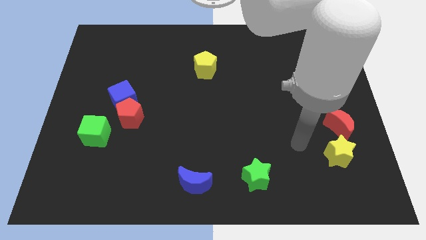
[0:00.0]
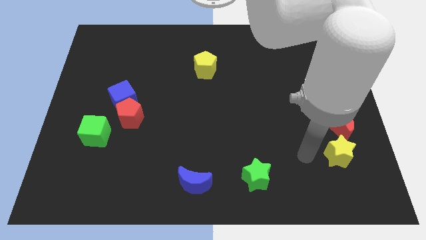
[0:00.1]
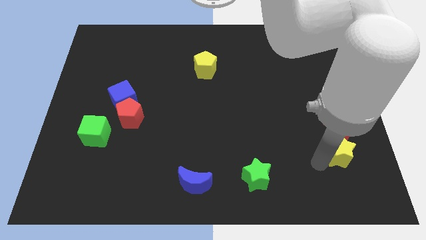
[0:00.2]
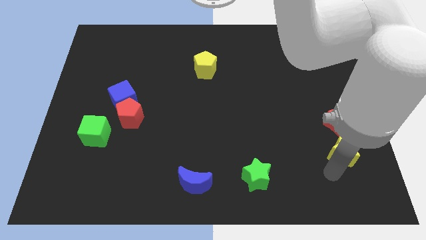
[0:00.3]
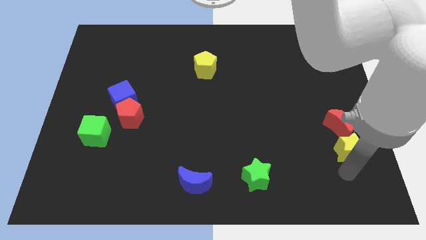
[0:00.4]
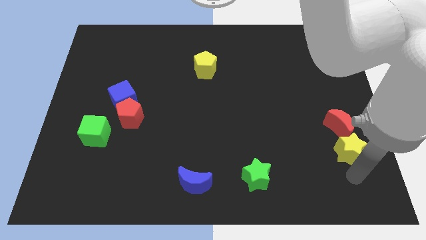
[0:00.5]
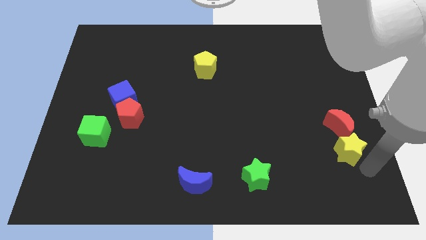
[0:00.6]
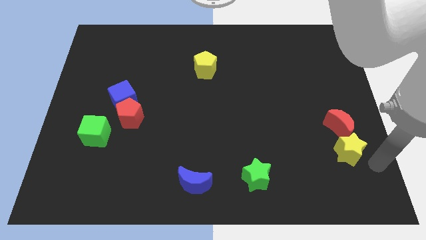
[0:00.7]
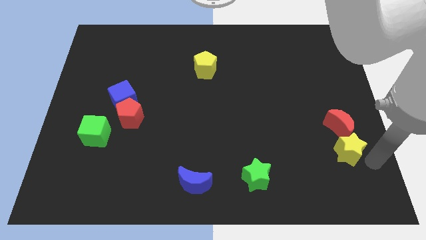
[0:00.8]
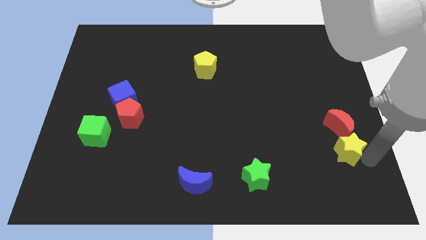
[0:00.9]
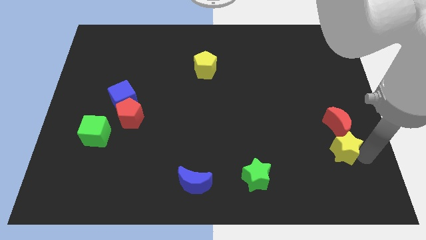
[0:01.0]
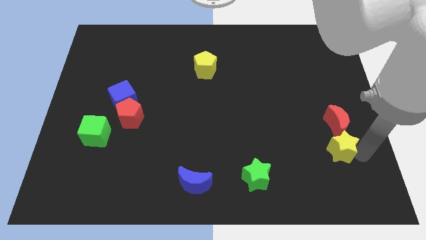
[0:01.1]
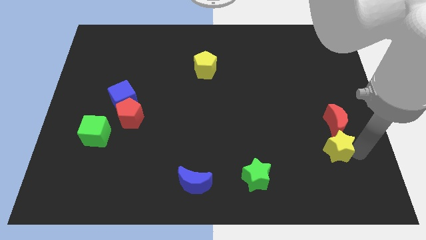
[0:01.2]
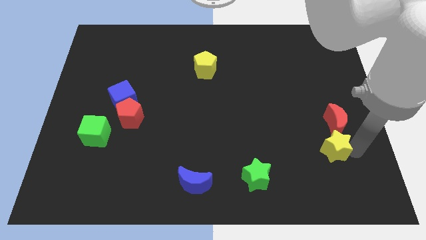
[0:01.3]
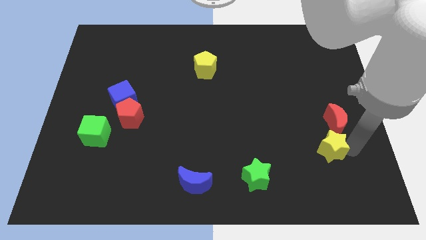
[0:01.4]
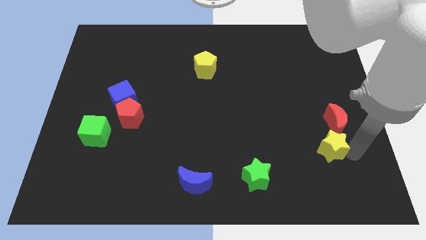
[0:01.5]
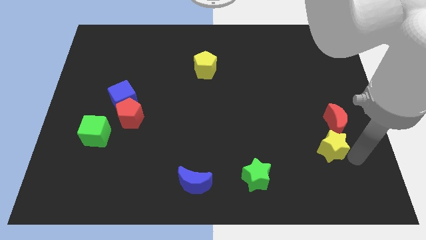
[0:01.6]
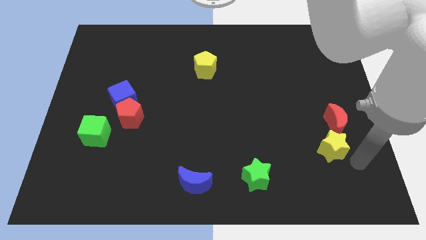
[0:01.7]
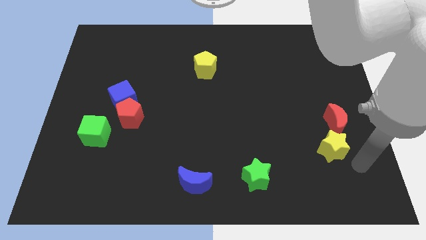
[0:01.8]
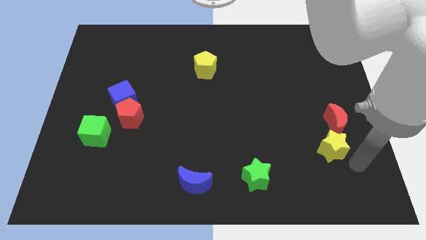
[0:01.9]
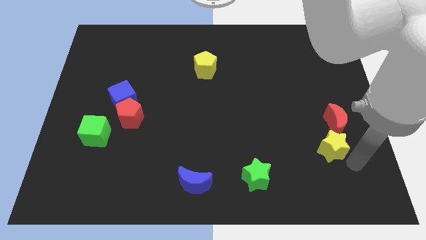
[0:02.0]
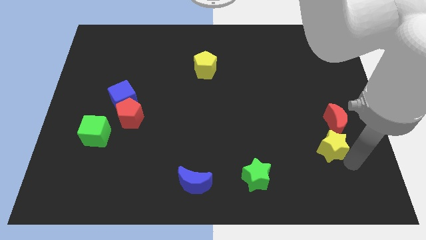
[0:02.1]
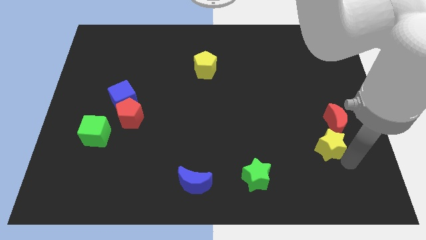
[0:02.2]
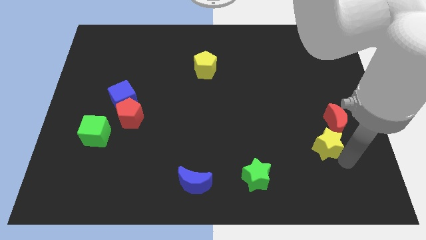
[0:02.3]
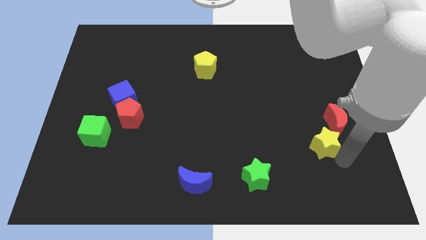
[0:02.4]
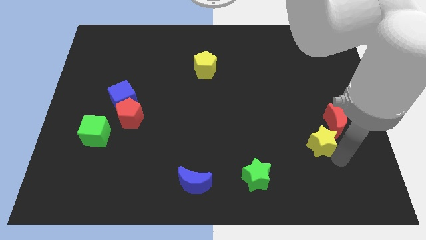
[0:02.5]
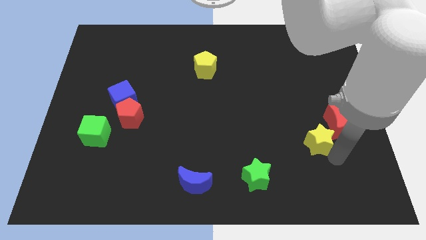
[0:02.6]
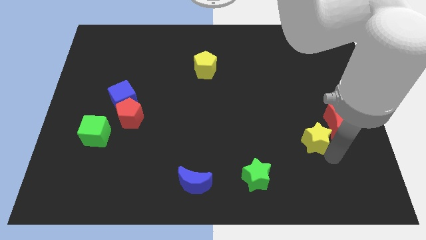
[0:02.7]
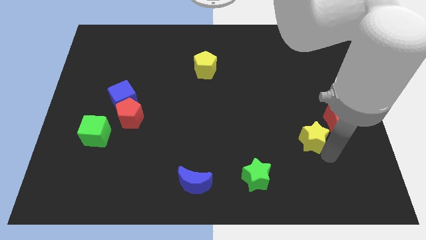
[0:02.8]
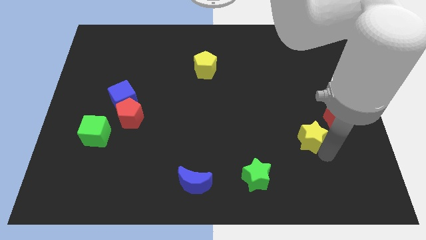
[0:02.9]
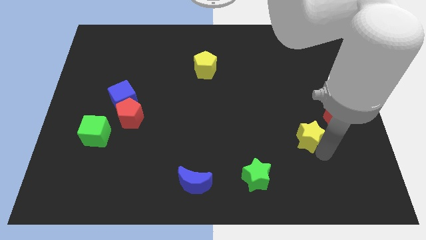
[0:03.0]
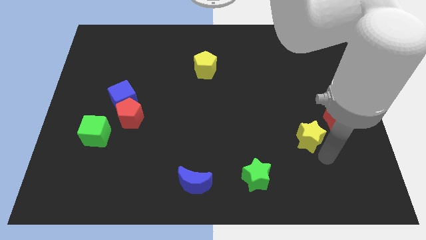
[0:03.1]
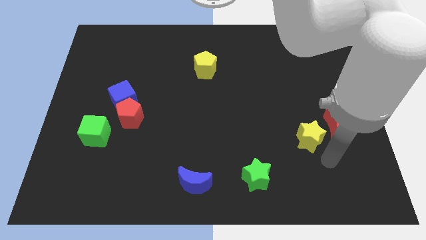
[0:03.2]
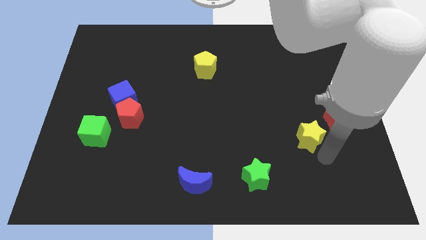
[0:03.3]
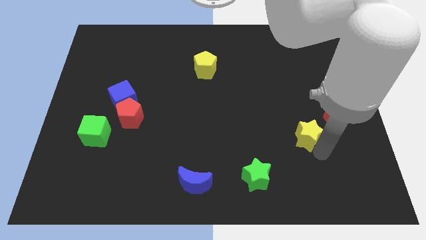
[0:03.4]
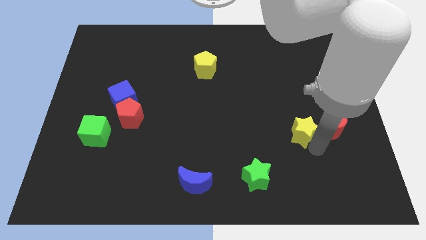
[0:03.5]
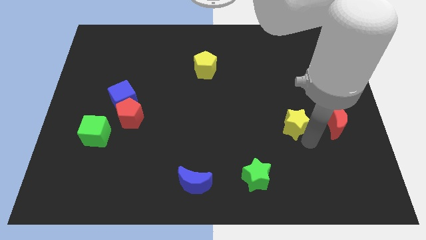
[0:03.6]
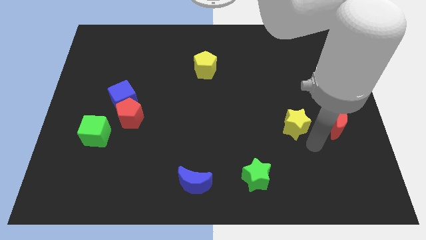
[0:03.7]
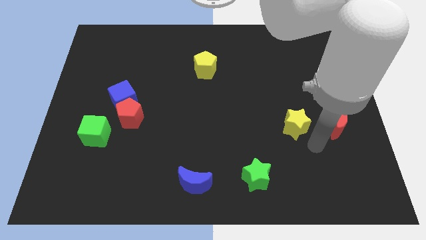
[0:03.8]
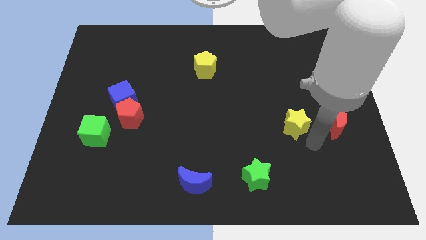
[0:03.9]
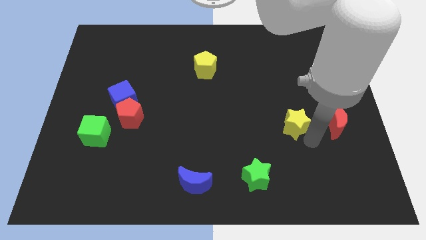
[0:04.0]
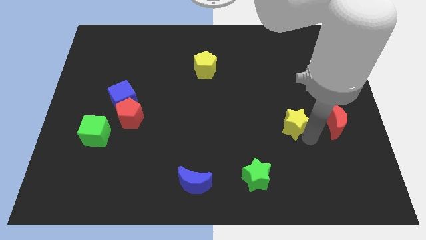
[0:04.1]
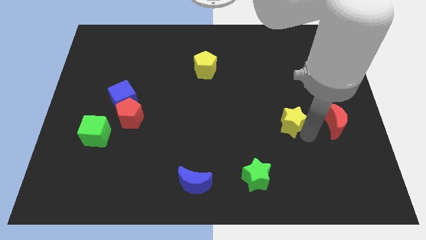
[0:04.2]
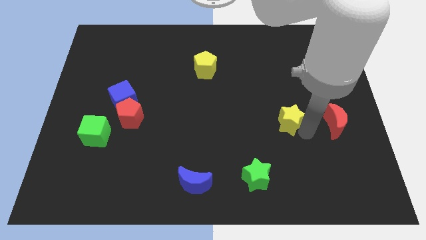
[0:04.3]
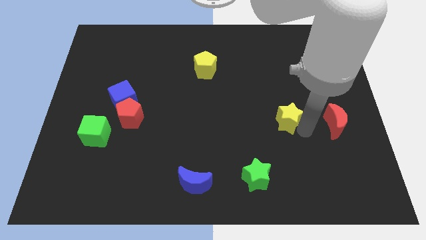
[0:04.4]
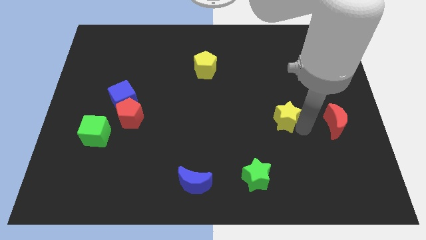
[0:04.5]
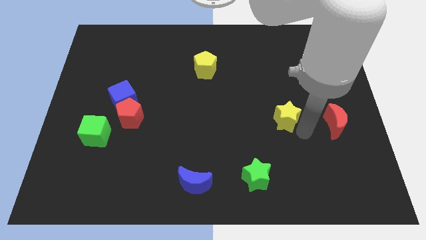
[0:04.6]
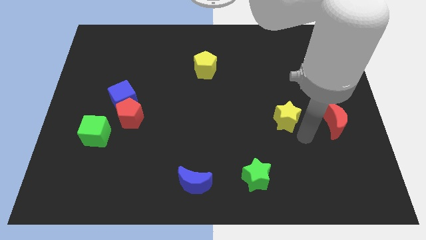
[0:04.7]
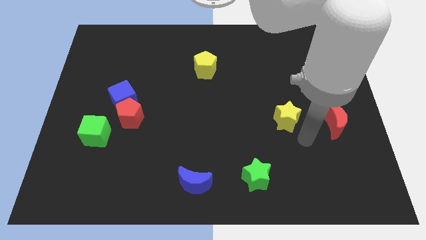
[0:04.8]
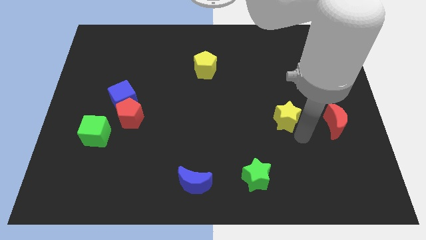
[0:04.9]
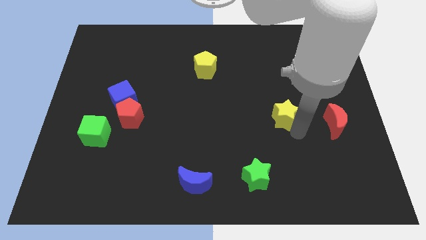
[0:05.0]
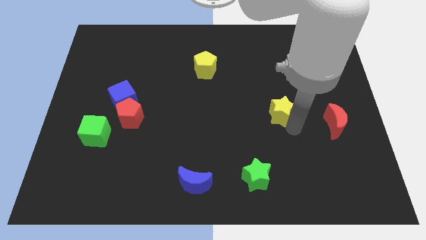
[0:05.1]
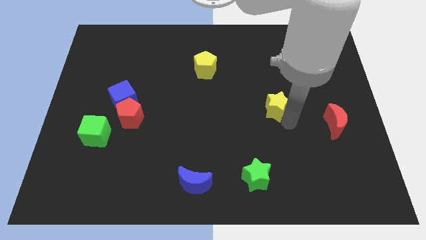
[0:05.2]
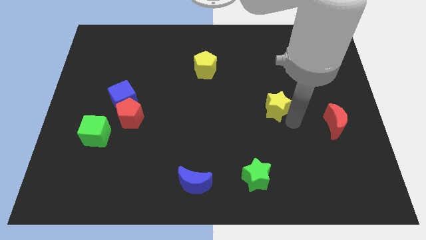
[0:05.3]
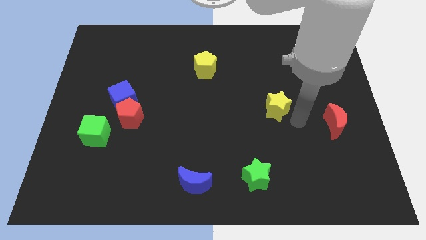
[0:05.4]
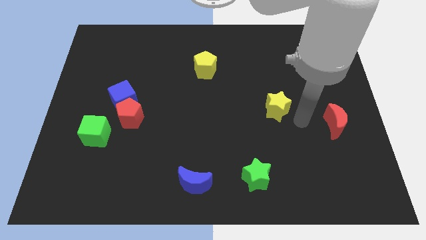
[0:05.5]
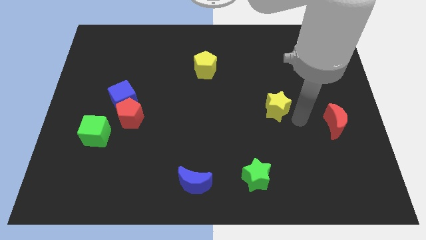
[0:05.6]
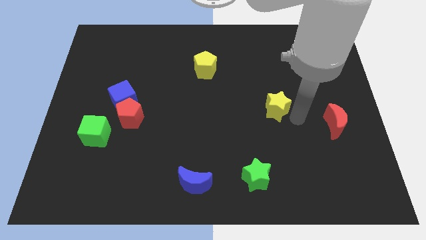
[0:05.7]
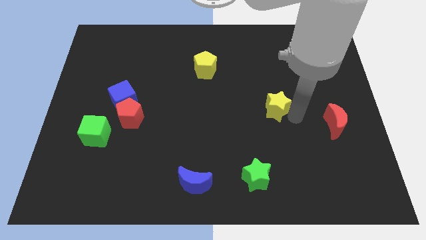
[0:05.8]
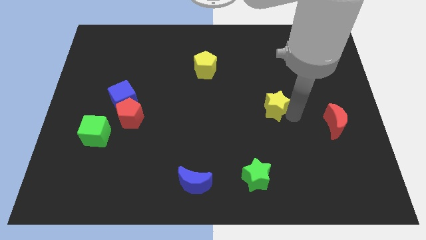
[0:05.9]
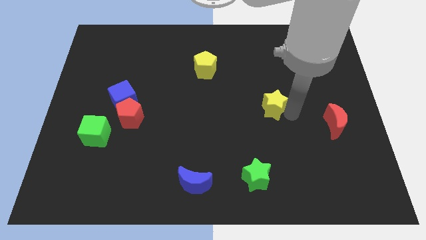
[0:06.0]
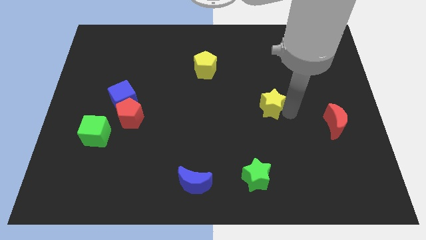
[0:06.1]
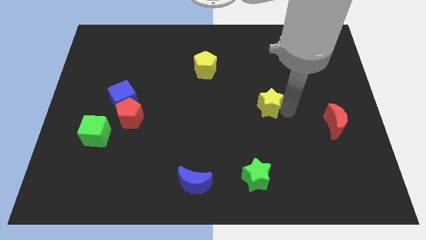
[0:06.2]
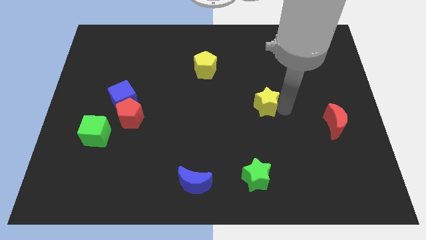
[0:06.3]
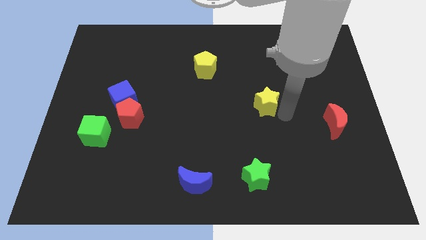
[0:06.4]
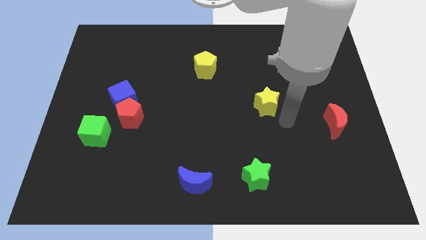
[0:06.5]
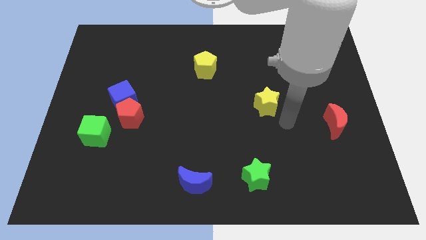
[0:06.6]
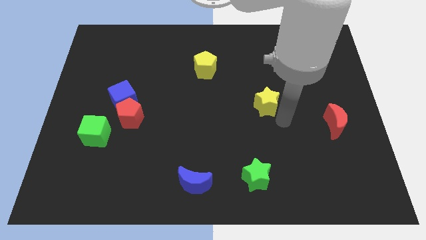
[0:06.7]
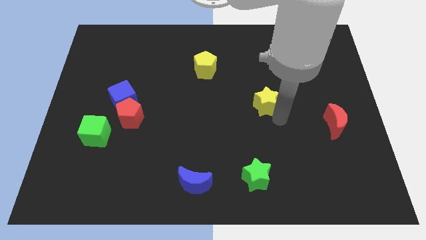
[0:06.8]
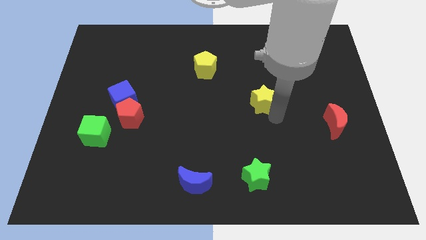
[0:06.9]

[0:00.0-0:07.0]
push the yellow star up and then to the left

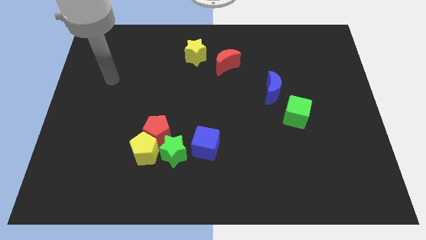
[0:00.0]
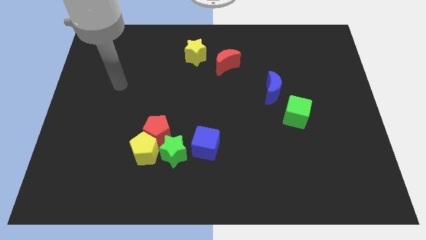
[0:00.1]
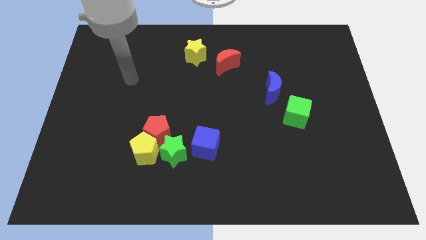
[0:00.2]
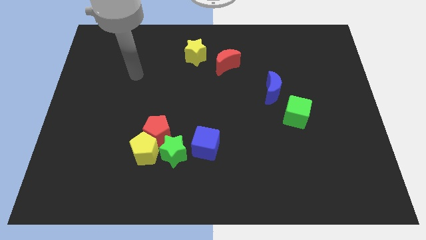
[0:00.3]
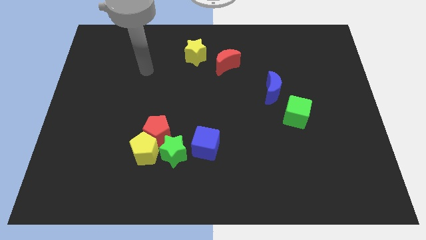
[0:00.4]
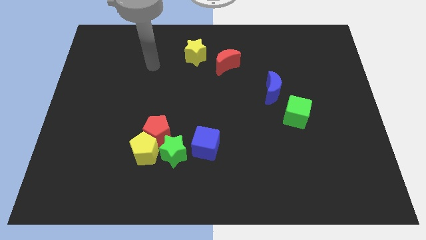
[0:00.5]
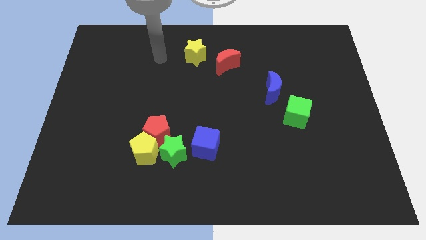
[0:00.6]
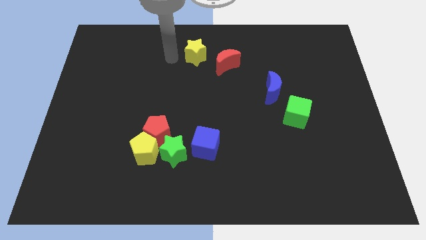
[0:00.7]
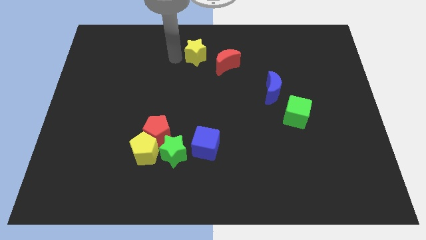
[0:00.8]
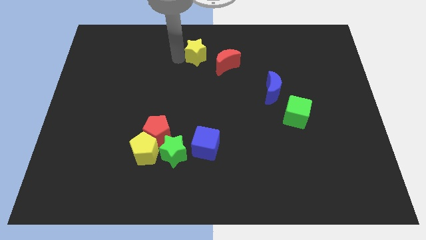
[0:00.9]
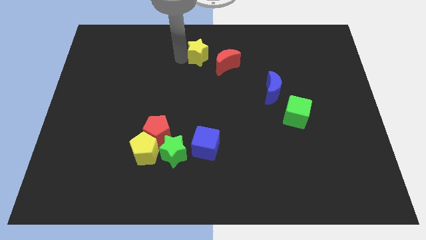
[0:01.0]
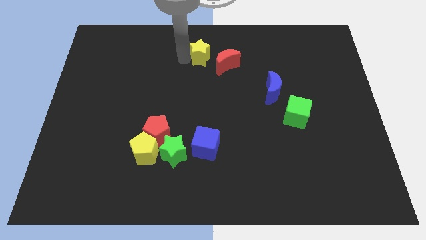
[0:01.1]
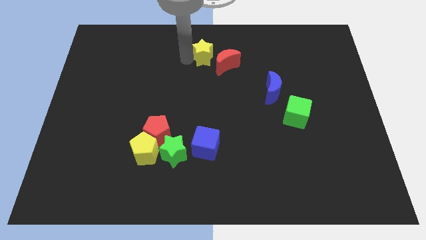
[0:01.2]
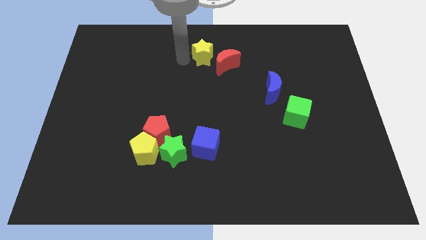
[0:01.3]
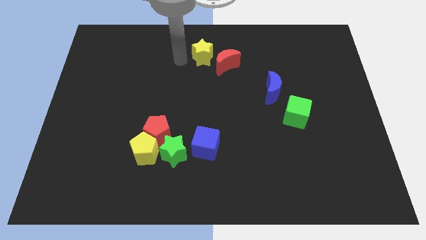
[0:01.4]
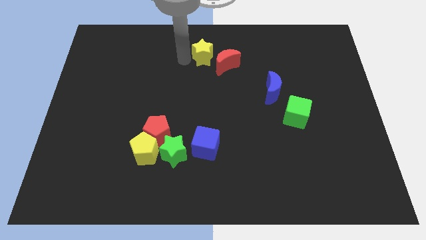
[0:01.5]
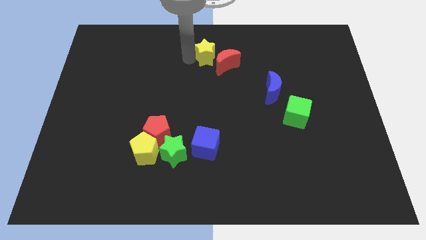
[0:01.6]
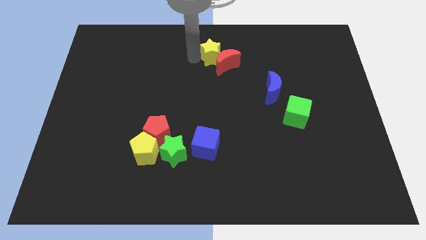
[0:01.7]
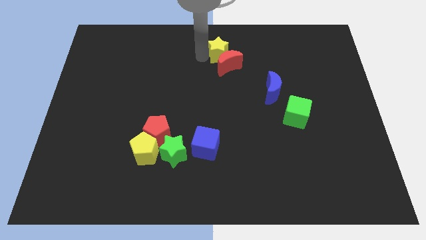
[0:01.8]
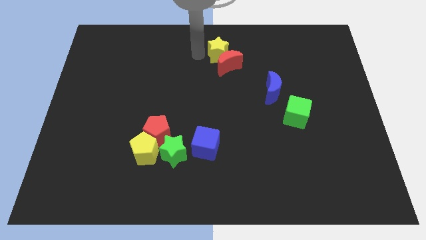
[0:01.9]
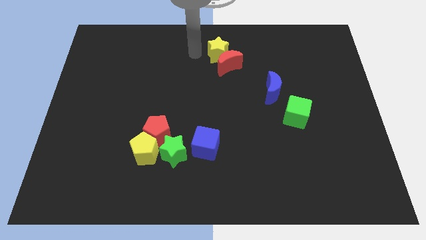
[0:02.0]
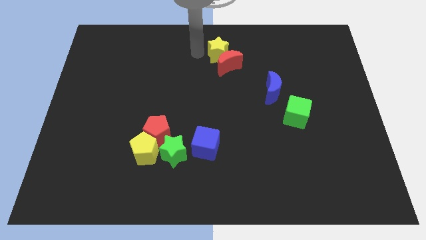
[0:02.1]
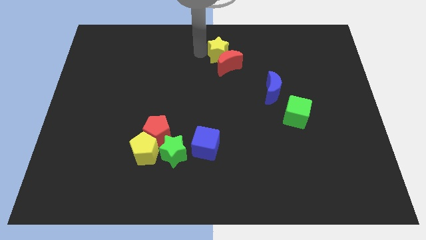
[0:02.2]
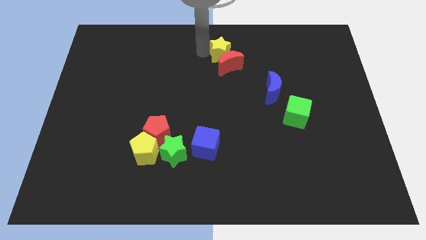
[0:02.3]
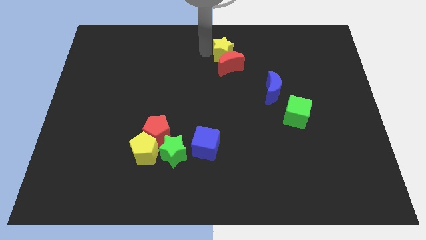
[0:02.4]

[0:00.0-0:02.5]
push the yellow star a little bit right
